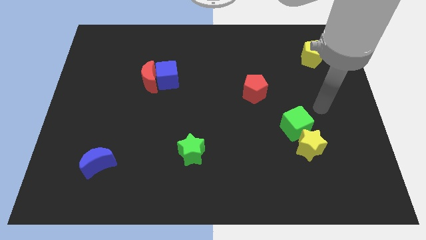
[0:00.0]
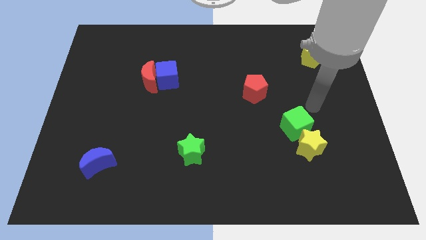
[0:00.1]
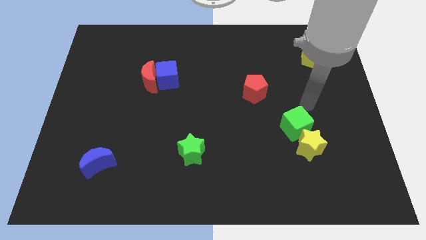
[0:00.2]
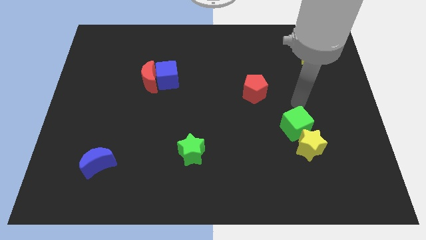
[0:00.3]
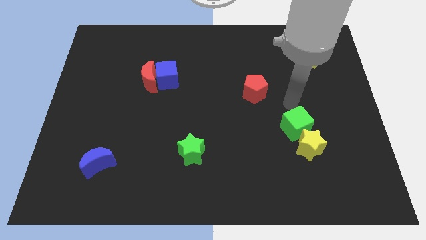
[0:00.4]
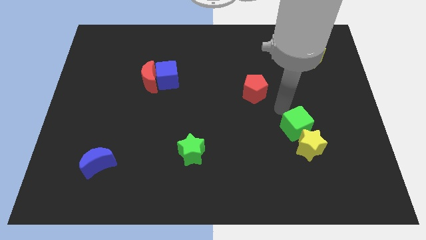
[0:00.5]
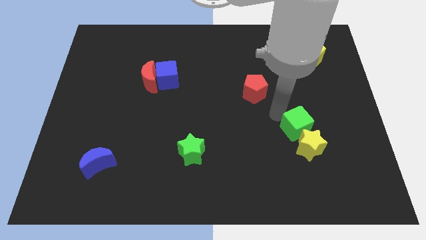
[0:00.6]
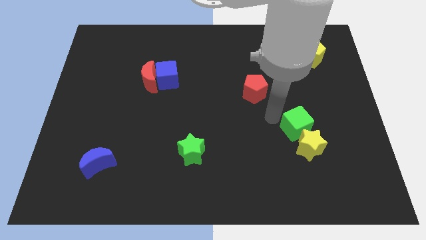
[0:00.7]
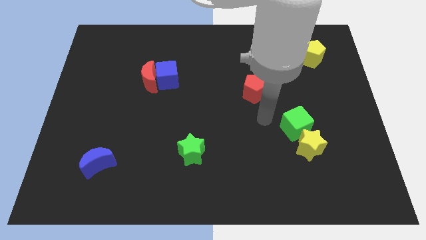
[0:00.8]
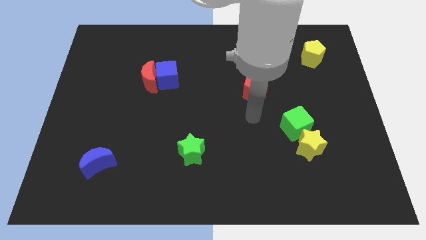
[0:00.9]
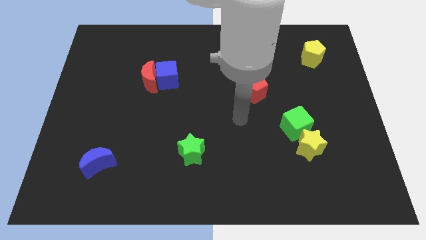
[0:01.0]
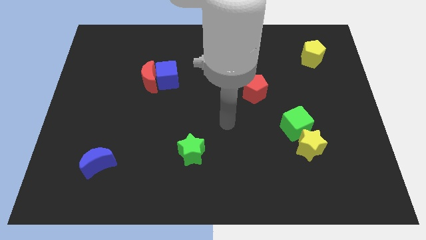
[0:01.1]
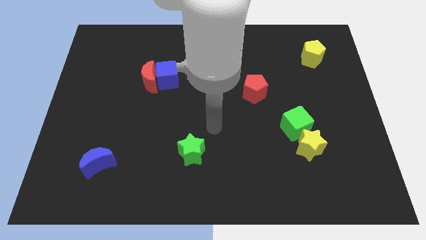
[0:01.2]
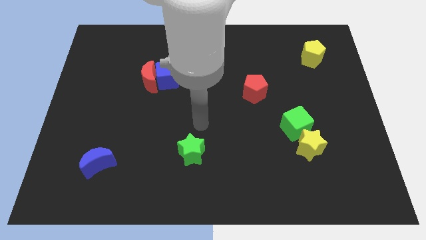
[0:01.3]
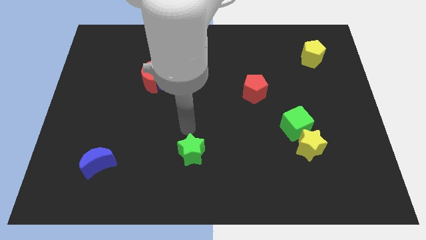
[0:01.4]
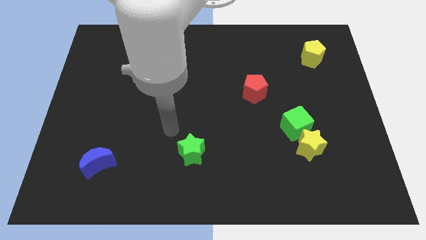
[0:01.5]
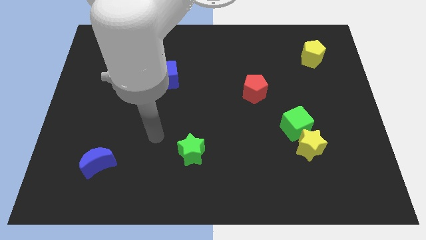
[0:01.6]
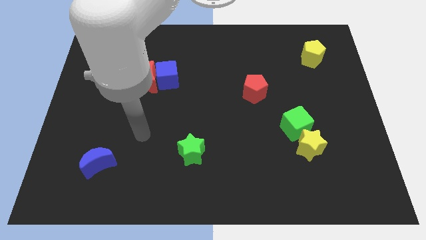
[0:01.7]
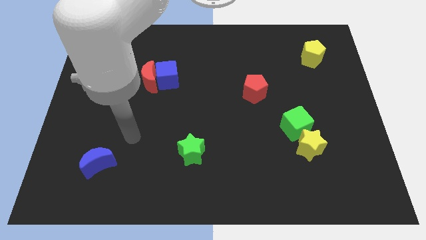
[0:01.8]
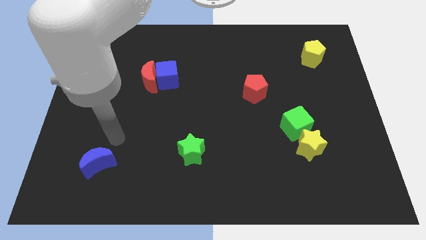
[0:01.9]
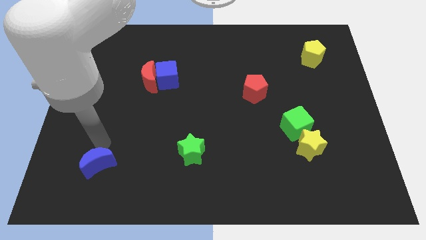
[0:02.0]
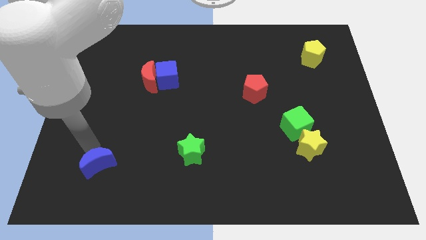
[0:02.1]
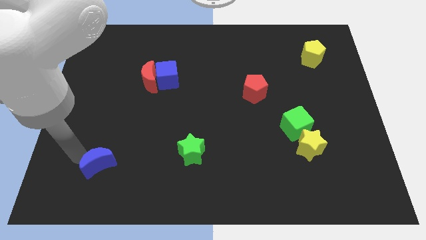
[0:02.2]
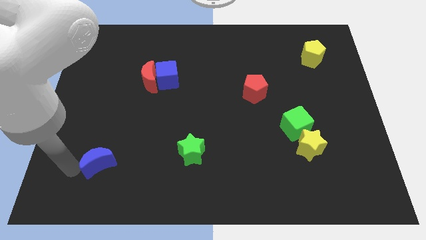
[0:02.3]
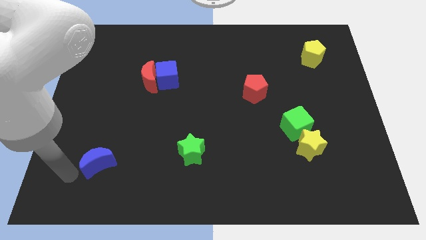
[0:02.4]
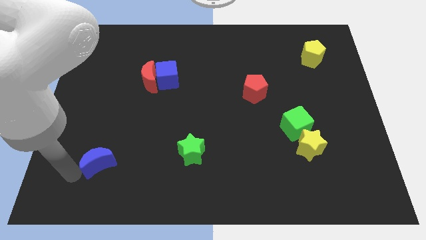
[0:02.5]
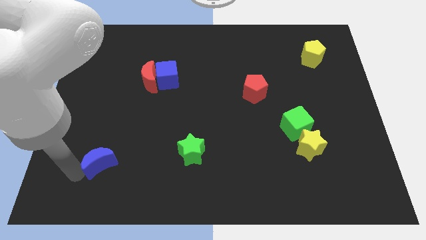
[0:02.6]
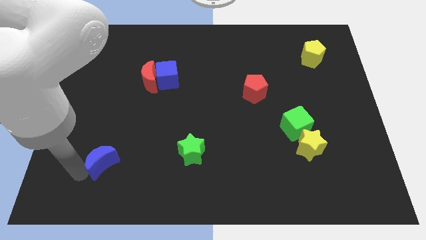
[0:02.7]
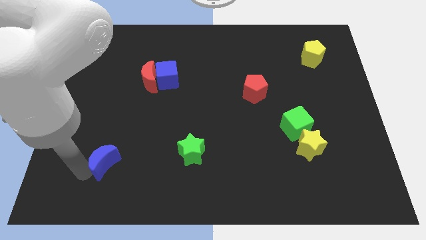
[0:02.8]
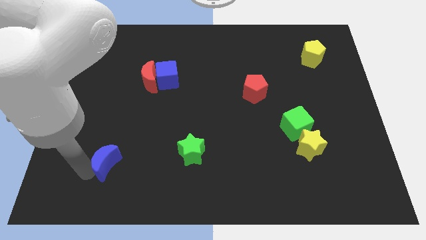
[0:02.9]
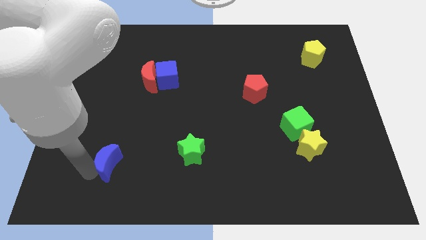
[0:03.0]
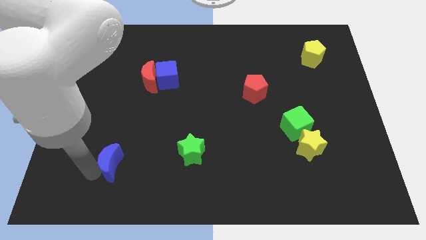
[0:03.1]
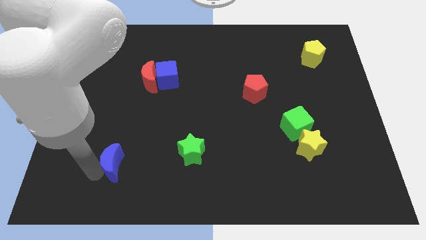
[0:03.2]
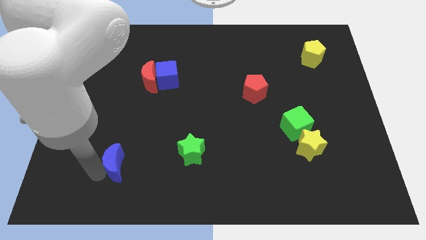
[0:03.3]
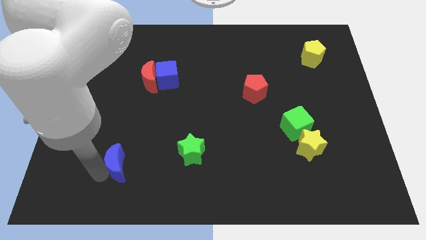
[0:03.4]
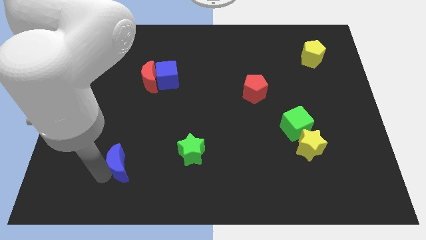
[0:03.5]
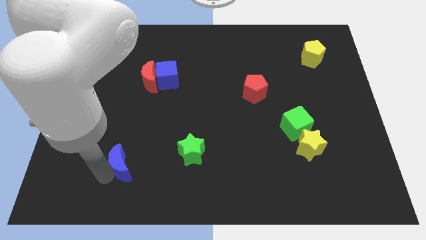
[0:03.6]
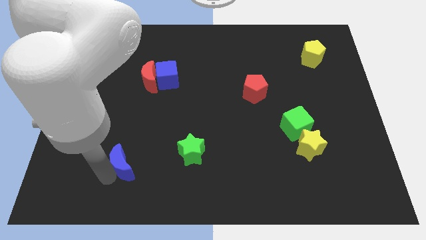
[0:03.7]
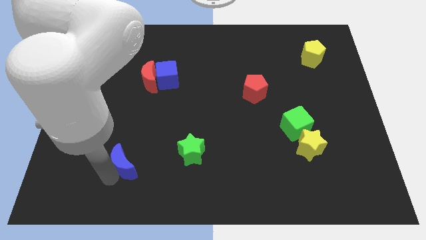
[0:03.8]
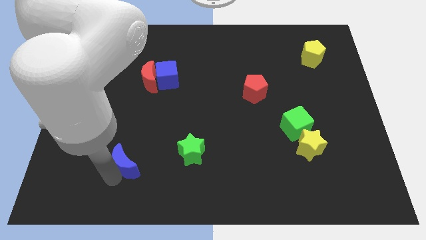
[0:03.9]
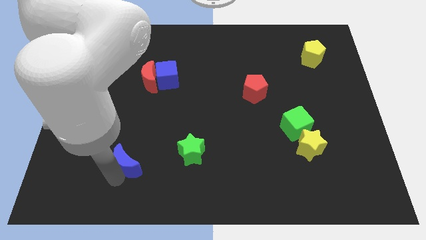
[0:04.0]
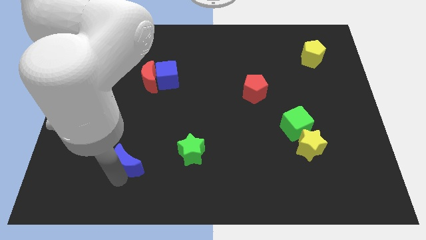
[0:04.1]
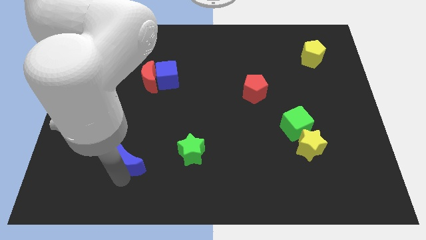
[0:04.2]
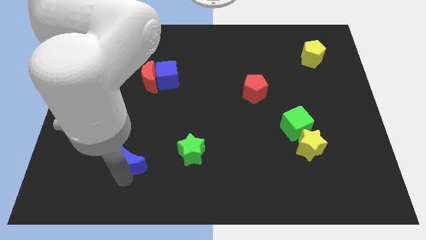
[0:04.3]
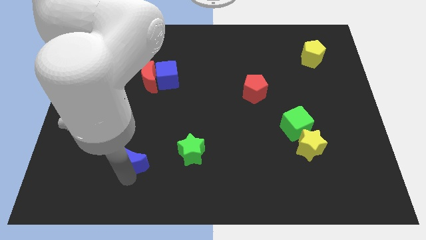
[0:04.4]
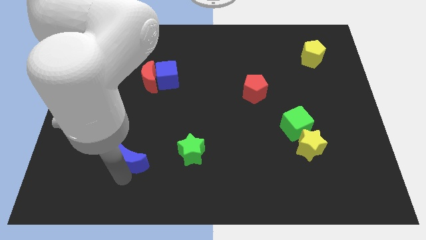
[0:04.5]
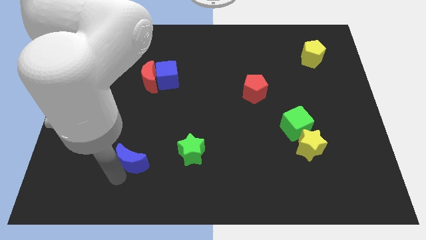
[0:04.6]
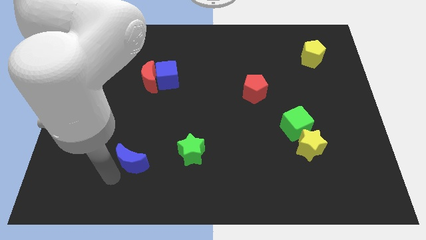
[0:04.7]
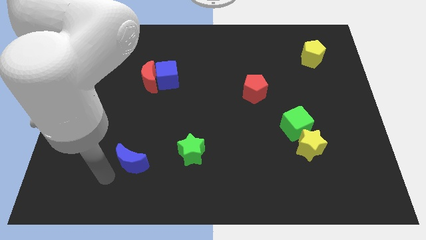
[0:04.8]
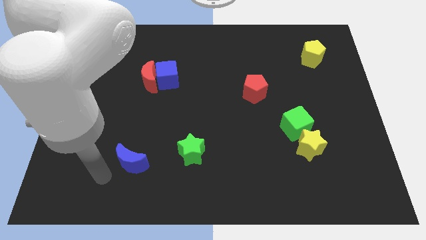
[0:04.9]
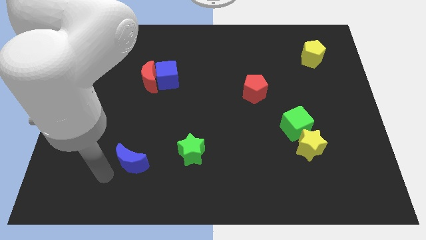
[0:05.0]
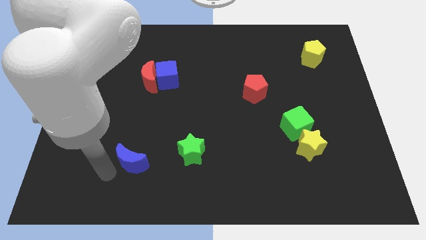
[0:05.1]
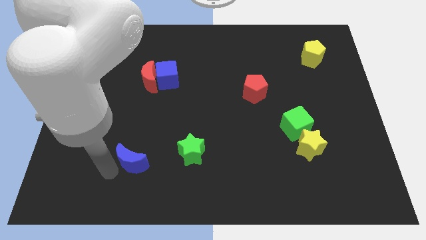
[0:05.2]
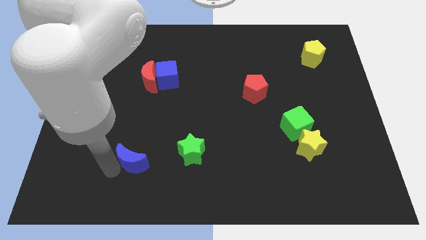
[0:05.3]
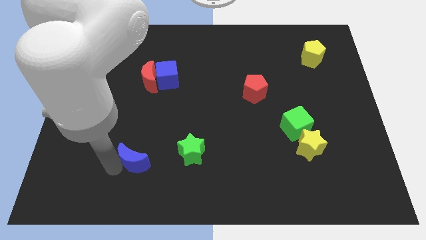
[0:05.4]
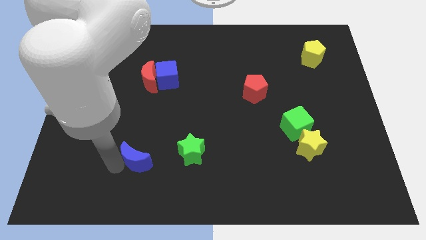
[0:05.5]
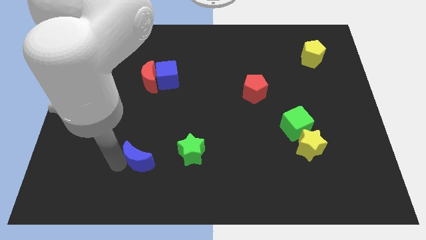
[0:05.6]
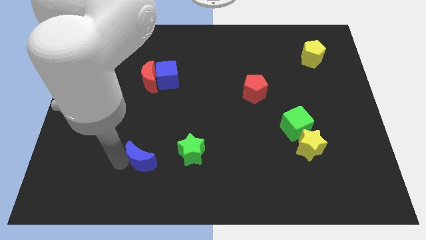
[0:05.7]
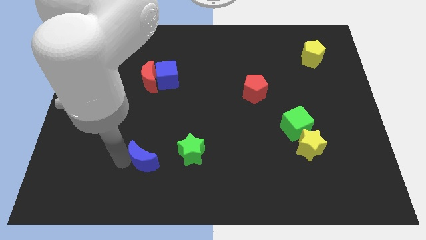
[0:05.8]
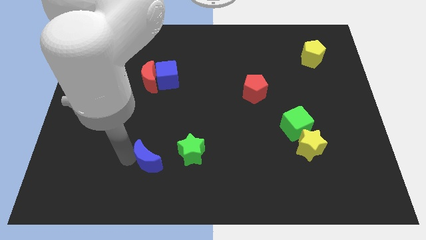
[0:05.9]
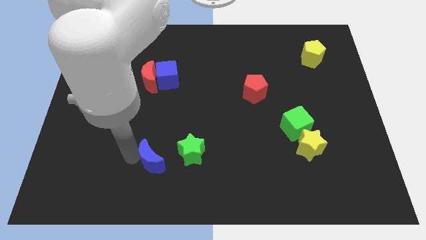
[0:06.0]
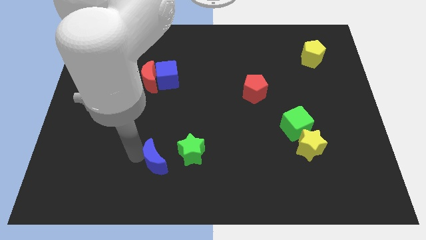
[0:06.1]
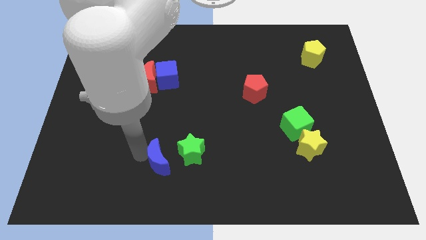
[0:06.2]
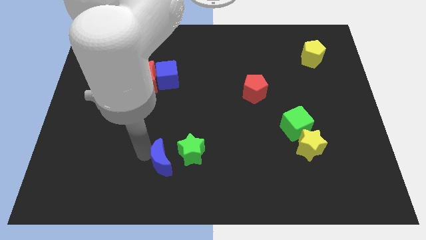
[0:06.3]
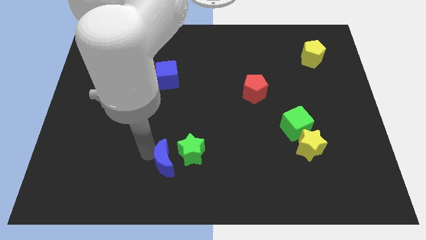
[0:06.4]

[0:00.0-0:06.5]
slide the blue moon towards the green star

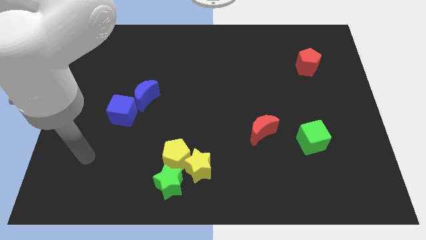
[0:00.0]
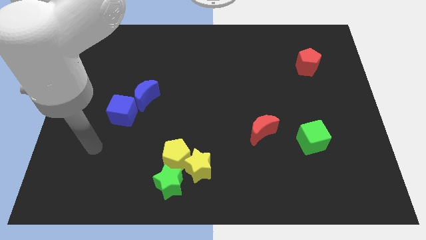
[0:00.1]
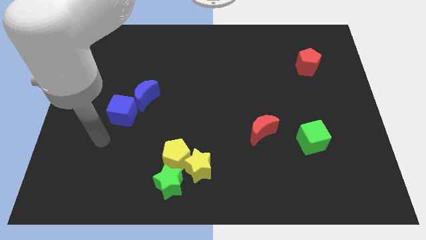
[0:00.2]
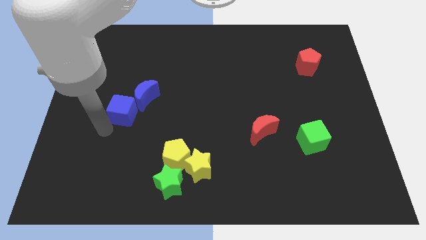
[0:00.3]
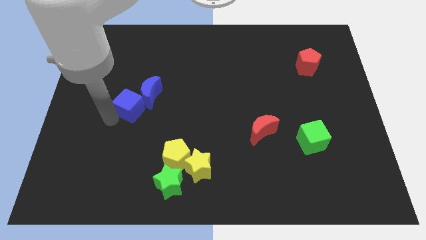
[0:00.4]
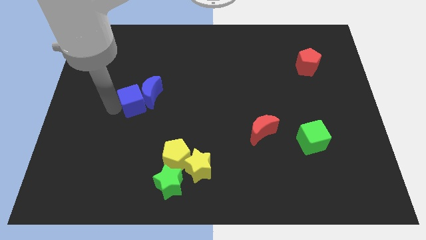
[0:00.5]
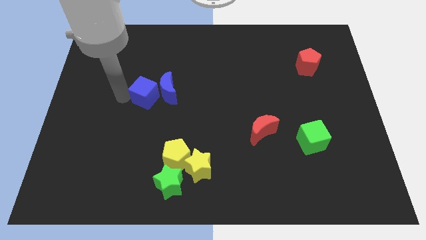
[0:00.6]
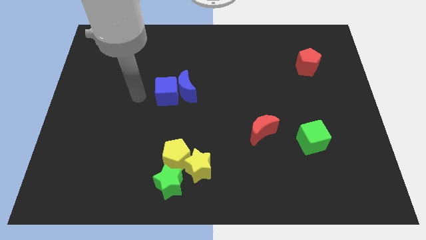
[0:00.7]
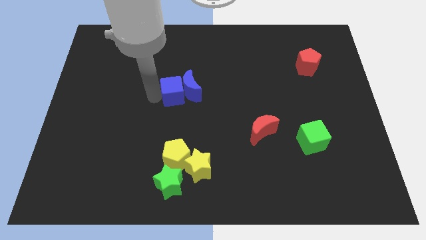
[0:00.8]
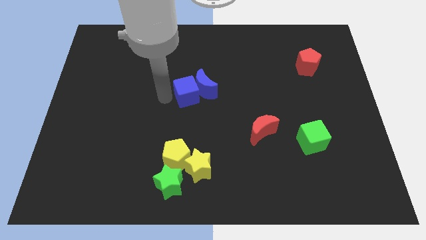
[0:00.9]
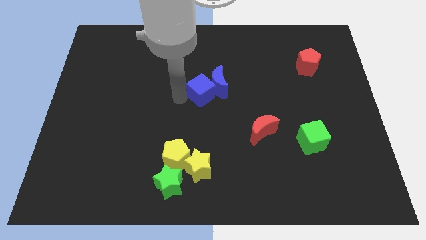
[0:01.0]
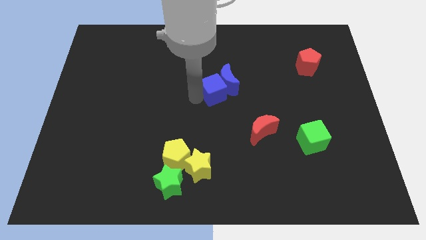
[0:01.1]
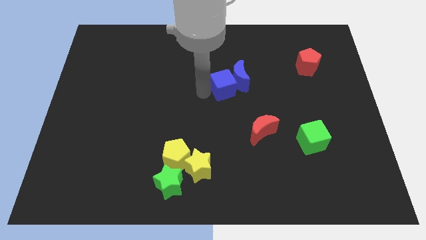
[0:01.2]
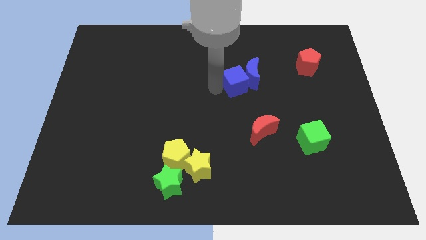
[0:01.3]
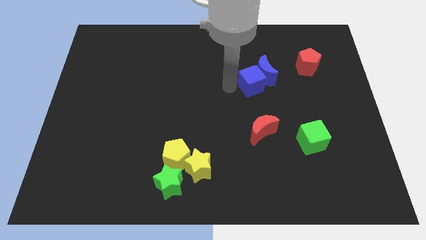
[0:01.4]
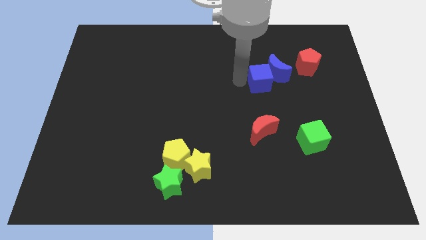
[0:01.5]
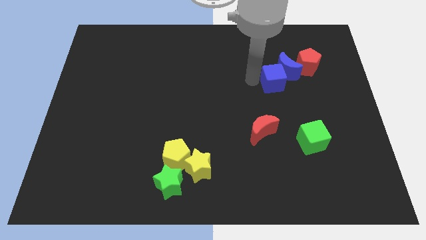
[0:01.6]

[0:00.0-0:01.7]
put the blue moon to the red pentagon
